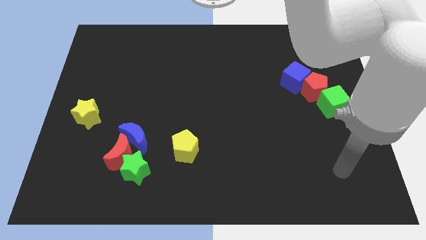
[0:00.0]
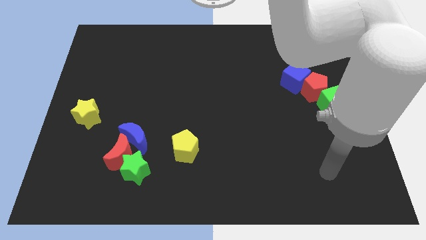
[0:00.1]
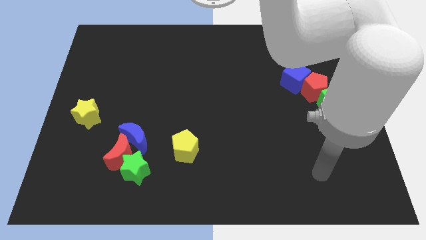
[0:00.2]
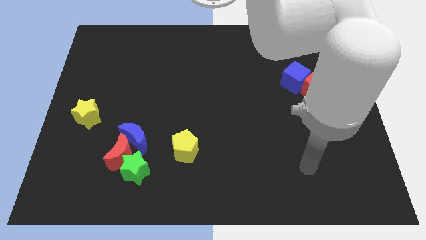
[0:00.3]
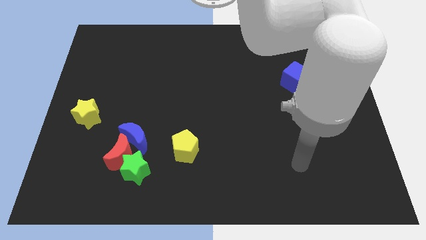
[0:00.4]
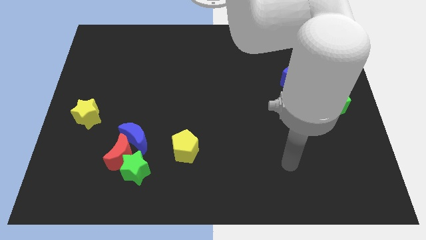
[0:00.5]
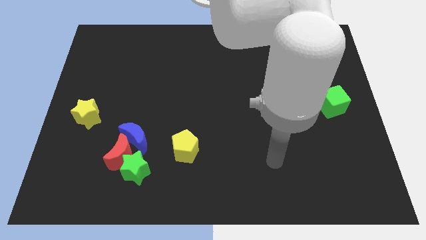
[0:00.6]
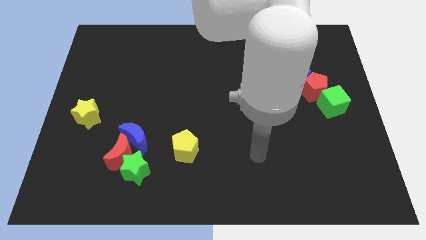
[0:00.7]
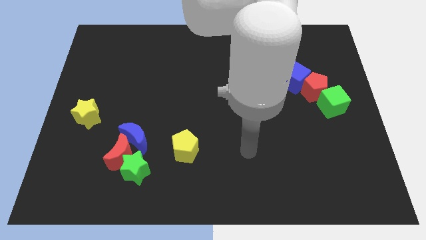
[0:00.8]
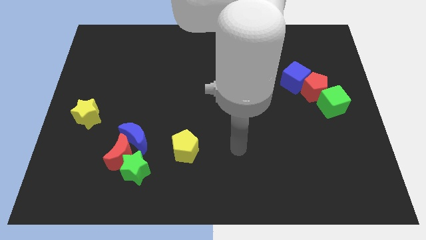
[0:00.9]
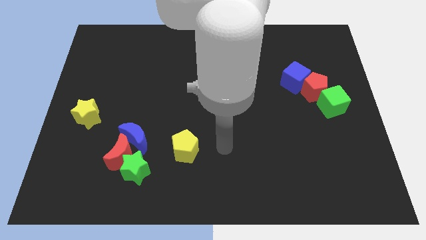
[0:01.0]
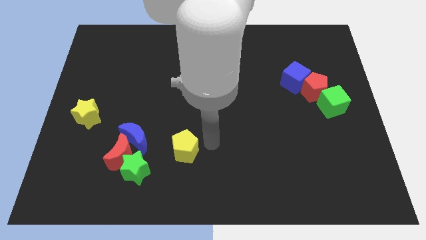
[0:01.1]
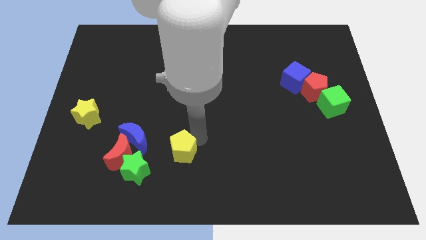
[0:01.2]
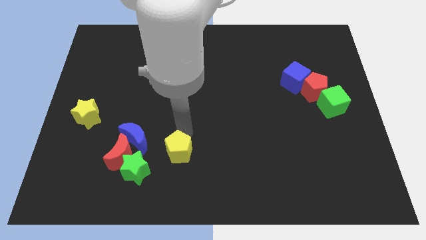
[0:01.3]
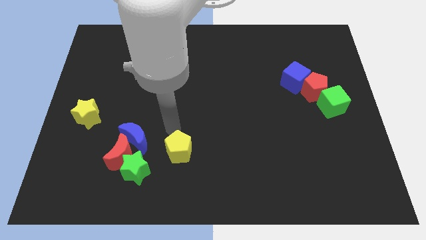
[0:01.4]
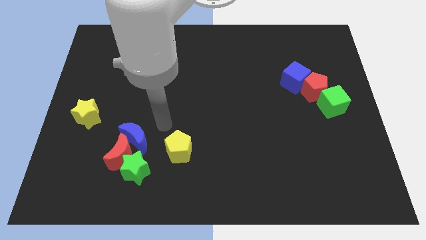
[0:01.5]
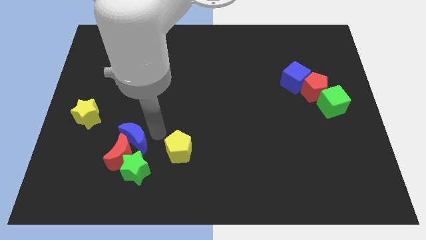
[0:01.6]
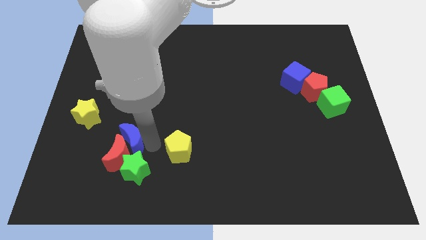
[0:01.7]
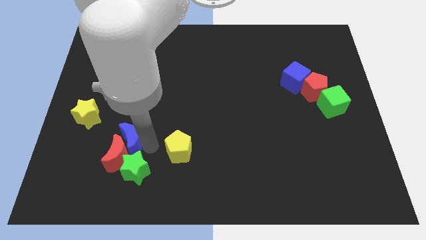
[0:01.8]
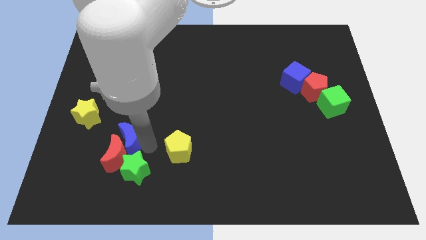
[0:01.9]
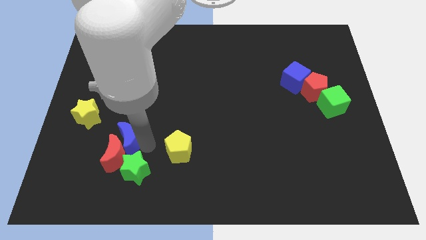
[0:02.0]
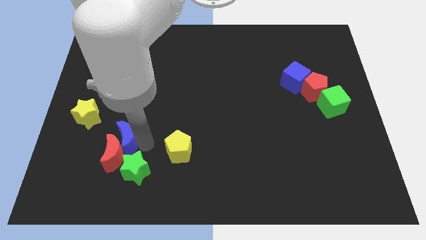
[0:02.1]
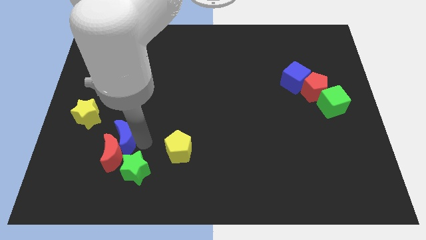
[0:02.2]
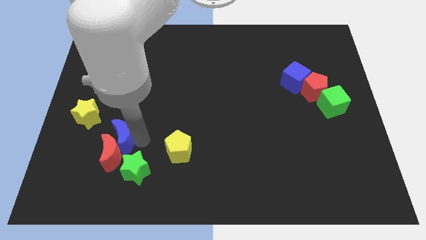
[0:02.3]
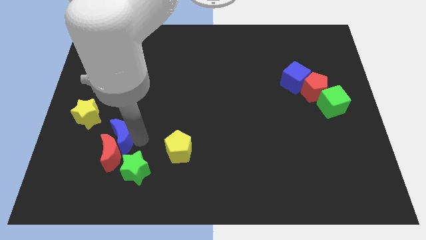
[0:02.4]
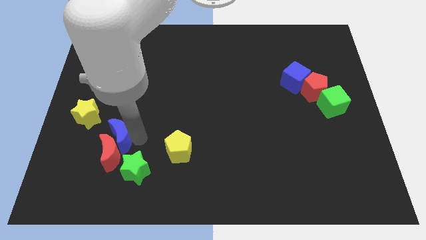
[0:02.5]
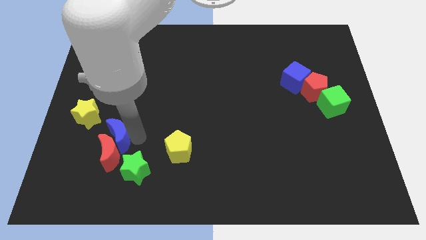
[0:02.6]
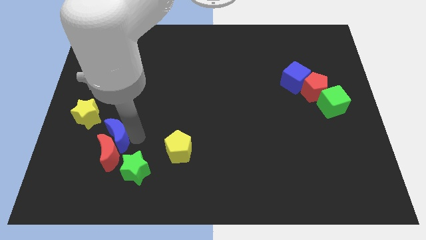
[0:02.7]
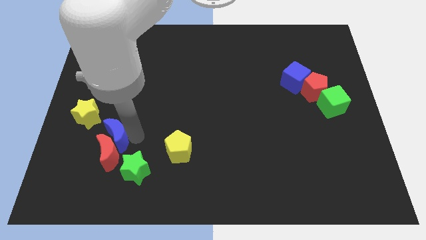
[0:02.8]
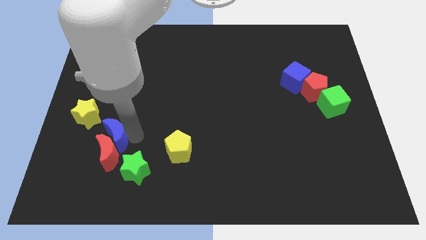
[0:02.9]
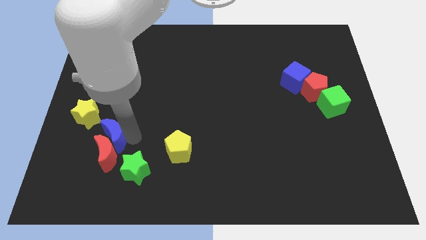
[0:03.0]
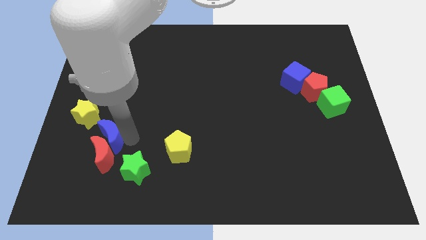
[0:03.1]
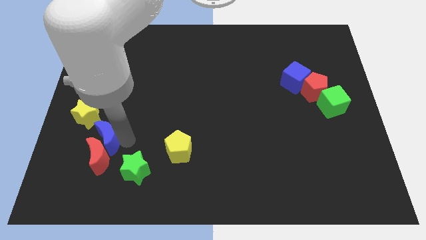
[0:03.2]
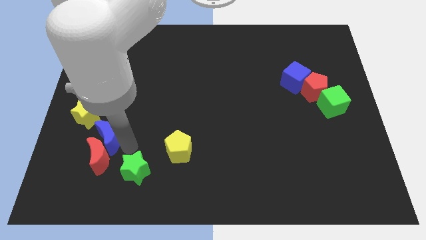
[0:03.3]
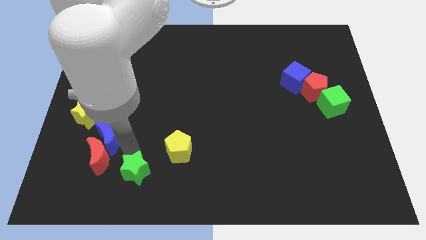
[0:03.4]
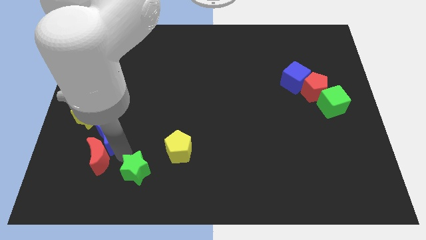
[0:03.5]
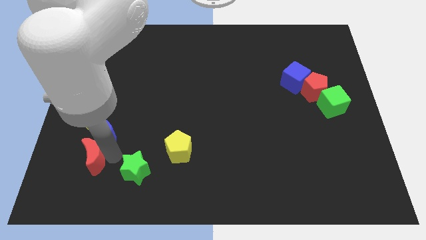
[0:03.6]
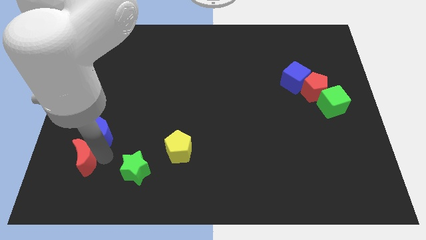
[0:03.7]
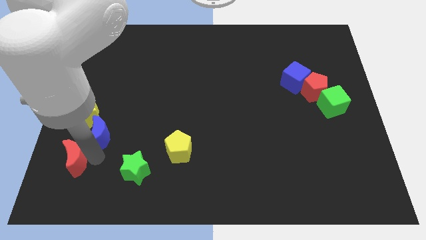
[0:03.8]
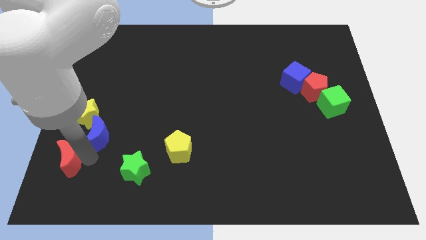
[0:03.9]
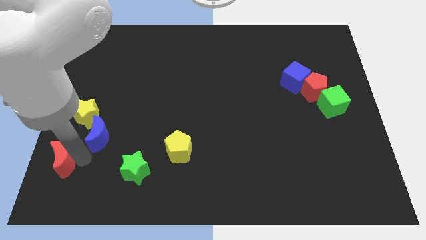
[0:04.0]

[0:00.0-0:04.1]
move the red moon away from the blue moon and green star

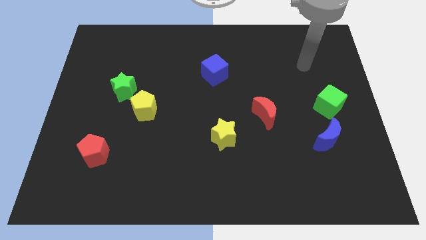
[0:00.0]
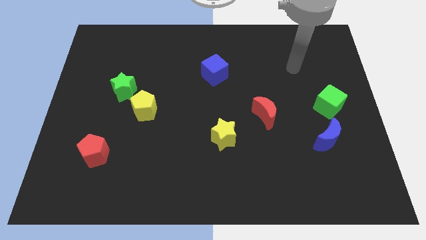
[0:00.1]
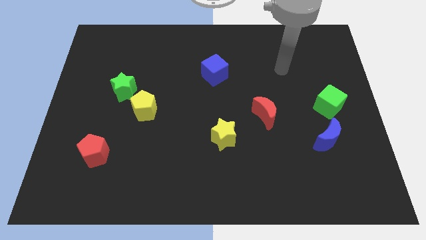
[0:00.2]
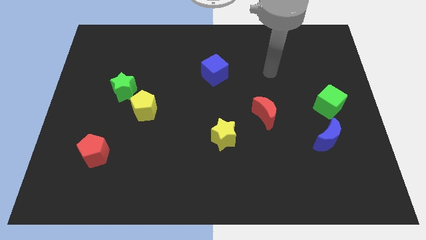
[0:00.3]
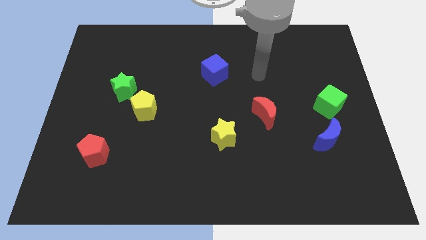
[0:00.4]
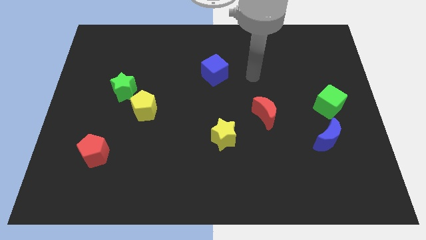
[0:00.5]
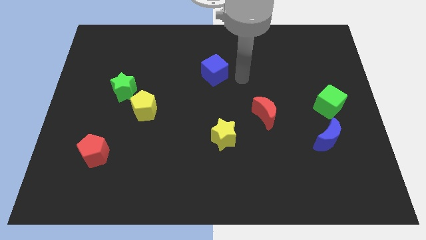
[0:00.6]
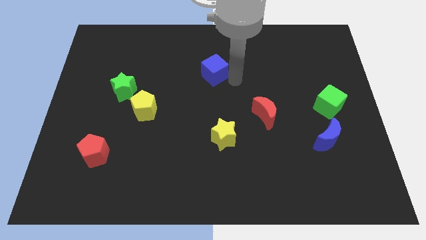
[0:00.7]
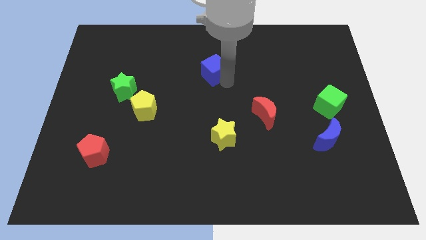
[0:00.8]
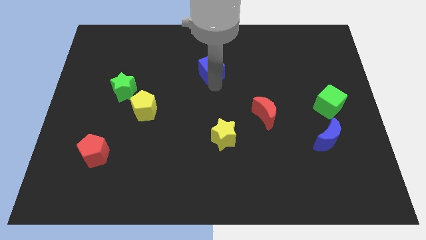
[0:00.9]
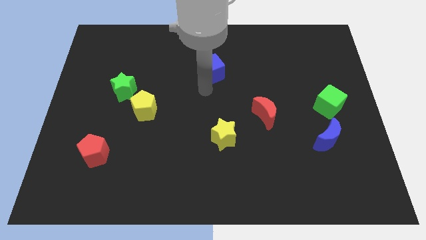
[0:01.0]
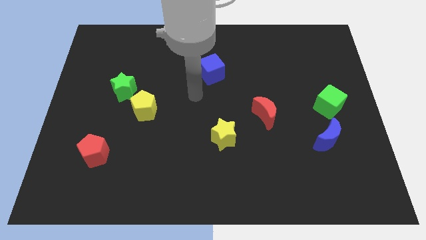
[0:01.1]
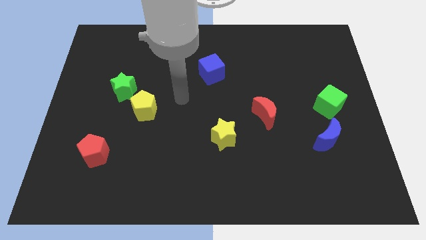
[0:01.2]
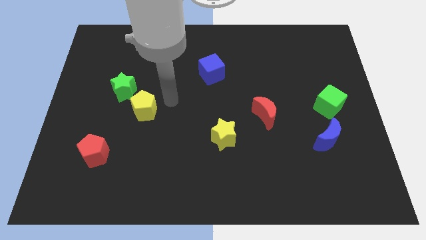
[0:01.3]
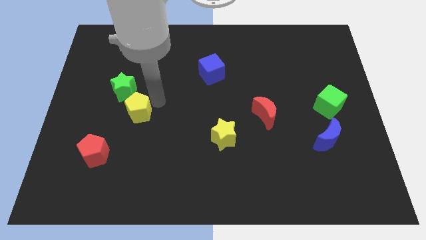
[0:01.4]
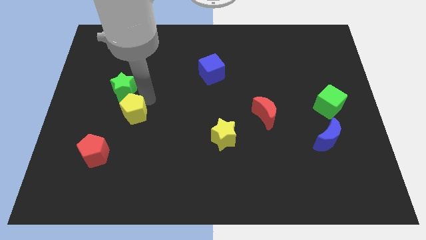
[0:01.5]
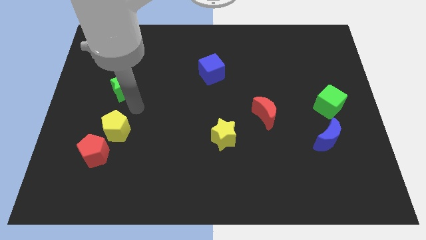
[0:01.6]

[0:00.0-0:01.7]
move the green star away from the yellow pentagon

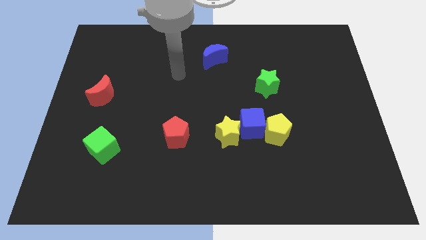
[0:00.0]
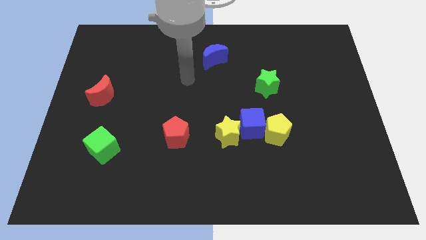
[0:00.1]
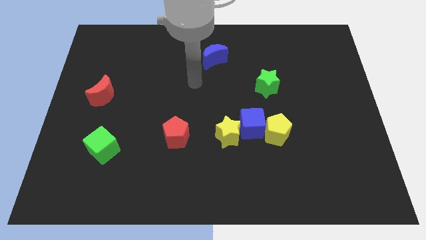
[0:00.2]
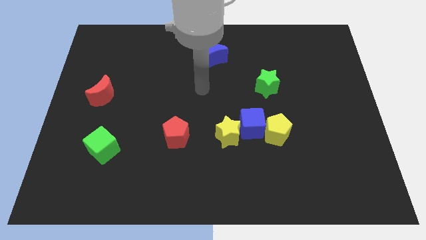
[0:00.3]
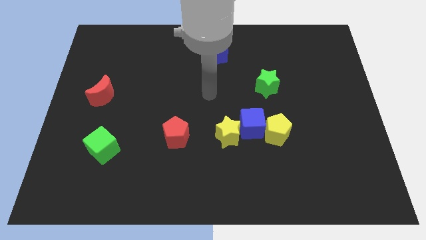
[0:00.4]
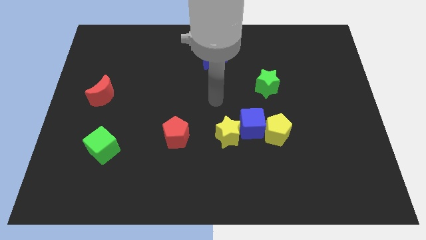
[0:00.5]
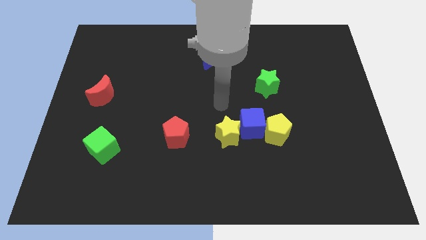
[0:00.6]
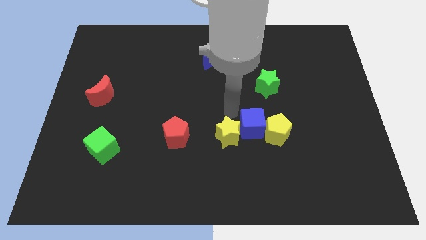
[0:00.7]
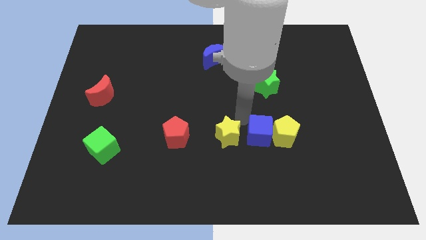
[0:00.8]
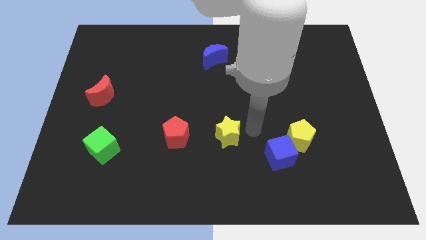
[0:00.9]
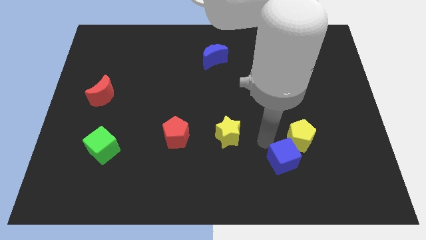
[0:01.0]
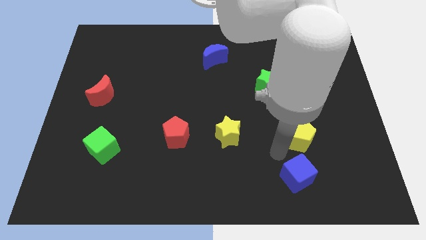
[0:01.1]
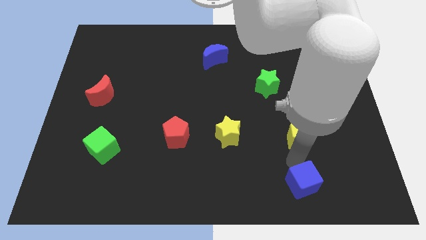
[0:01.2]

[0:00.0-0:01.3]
pull the yellow pentagon apart from the blue cube

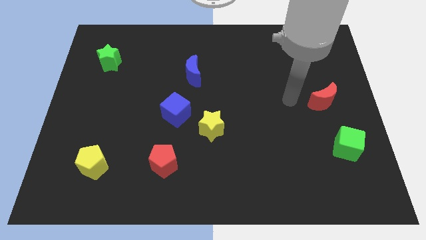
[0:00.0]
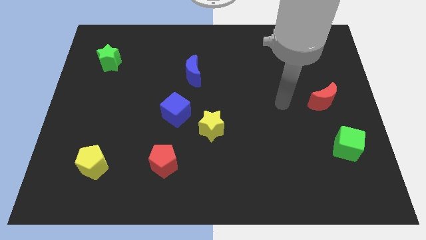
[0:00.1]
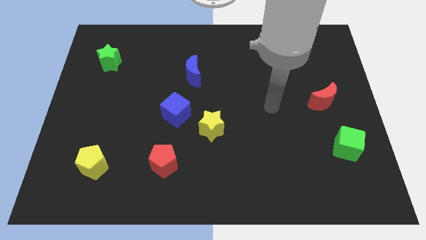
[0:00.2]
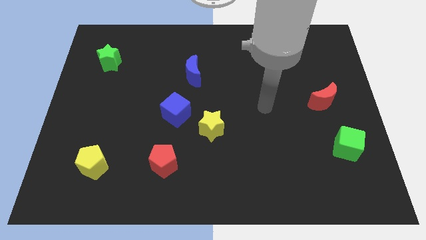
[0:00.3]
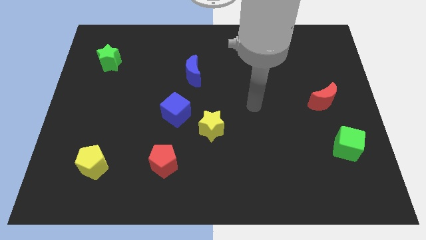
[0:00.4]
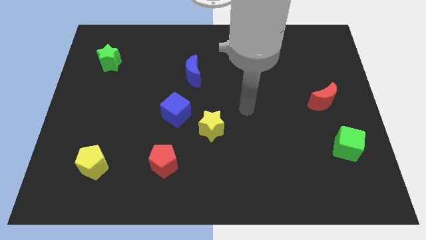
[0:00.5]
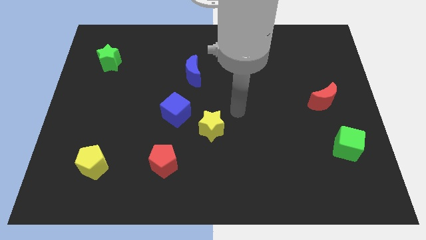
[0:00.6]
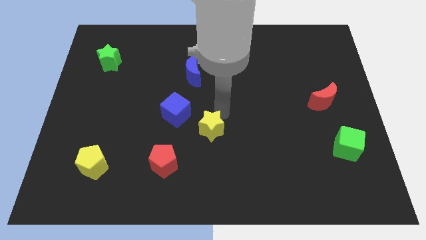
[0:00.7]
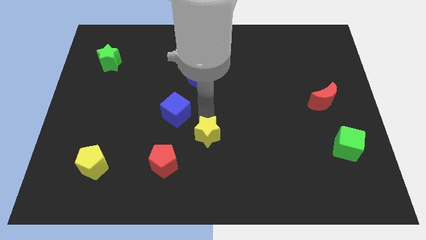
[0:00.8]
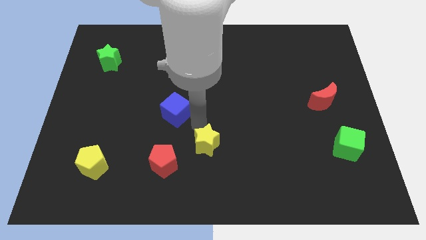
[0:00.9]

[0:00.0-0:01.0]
pull the blue cube apart from the yellow star

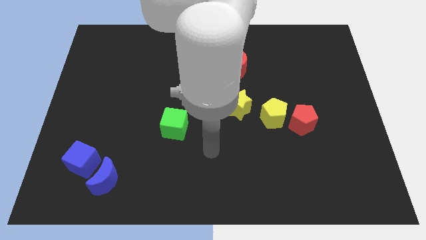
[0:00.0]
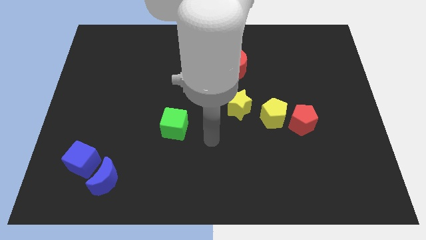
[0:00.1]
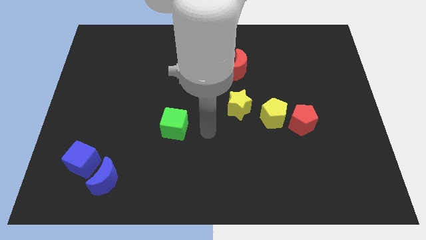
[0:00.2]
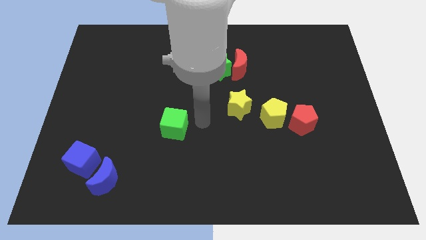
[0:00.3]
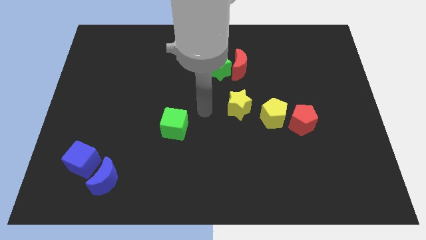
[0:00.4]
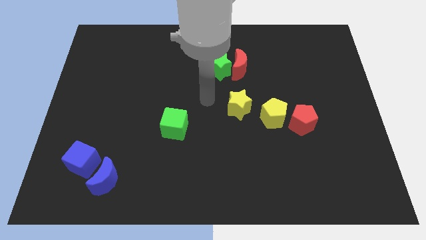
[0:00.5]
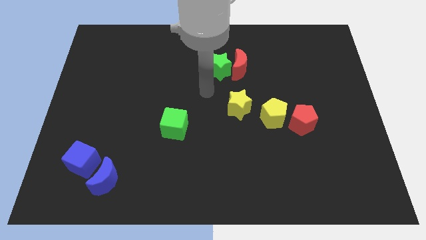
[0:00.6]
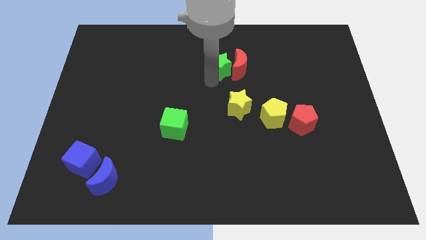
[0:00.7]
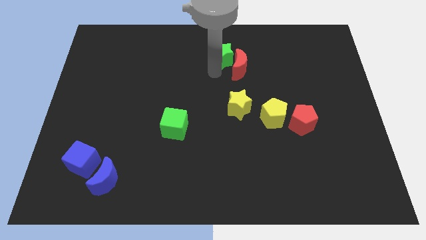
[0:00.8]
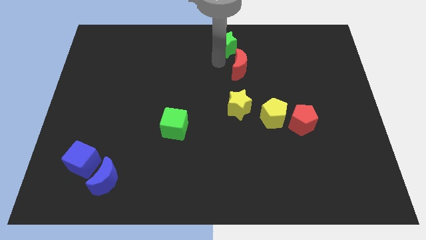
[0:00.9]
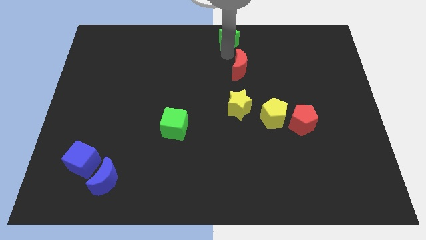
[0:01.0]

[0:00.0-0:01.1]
separate the red moon from the green star
